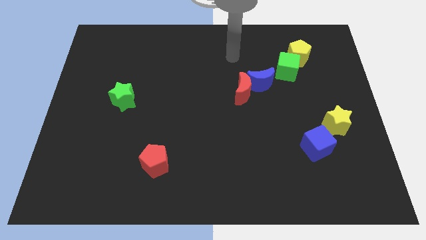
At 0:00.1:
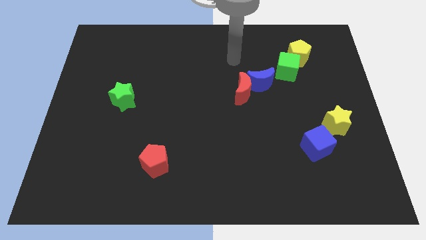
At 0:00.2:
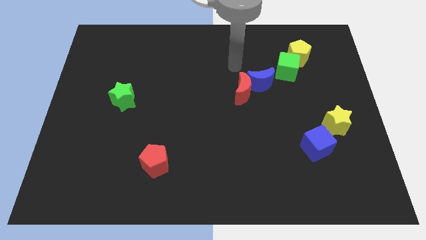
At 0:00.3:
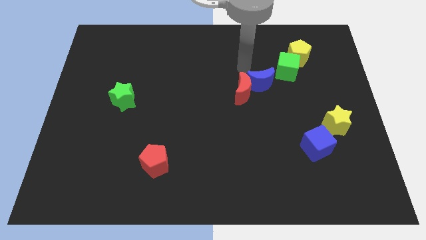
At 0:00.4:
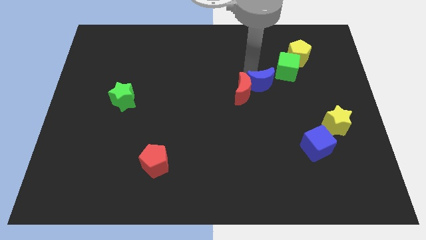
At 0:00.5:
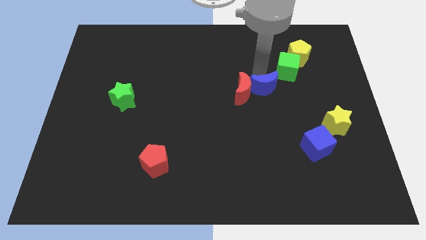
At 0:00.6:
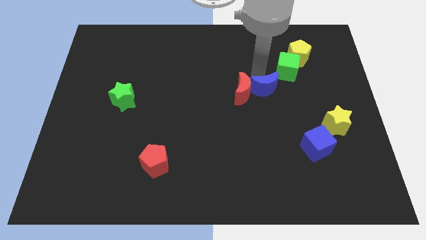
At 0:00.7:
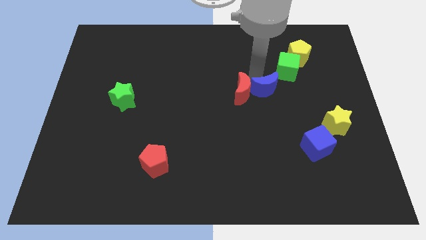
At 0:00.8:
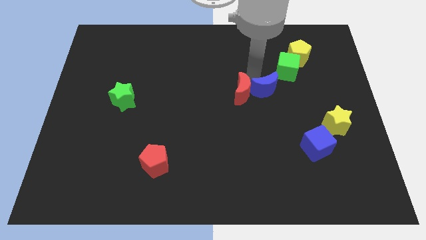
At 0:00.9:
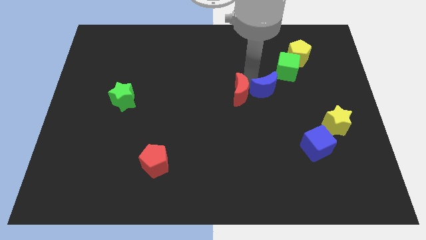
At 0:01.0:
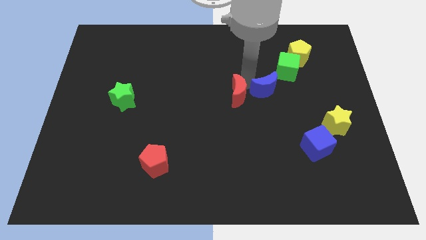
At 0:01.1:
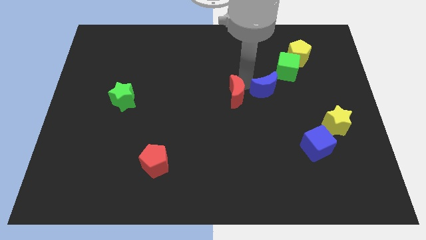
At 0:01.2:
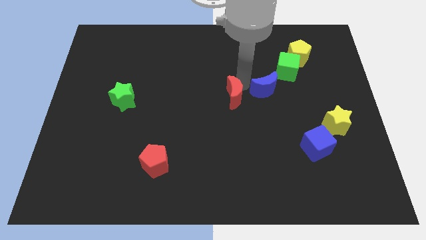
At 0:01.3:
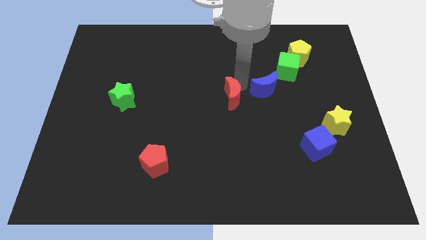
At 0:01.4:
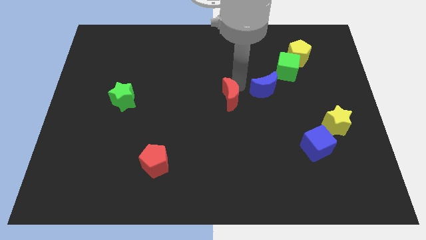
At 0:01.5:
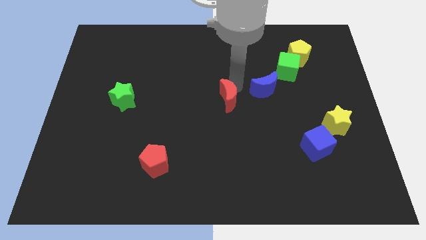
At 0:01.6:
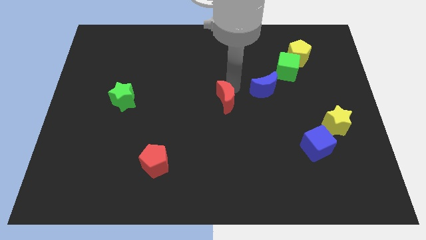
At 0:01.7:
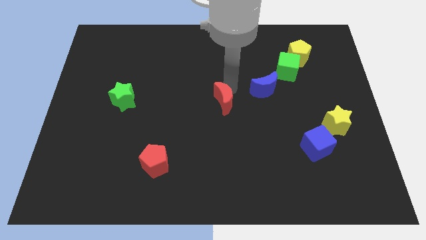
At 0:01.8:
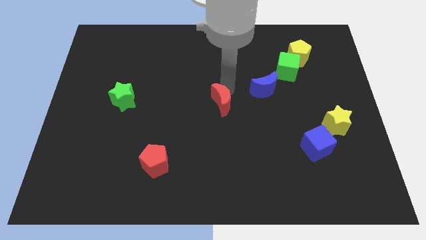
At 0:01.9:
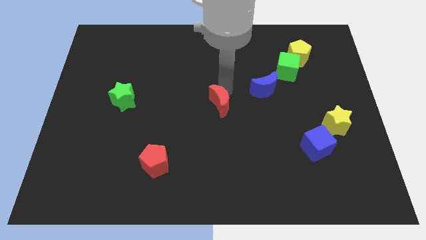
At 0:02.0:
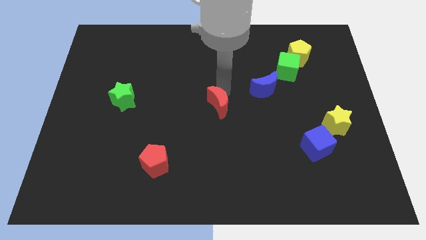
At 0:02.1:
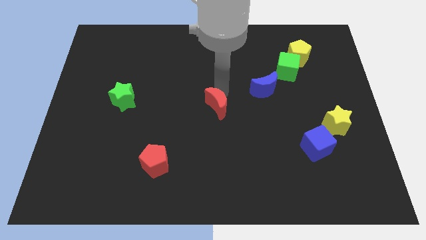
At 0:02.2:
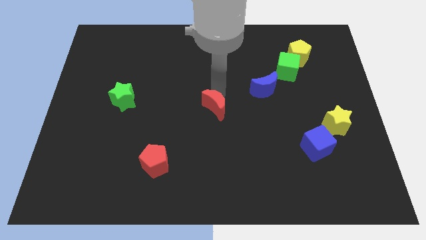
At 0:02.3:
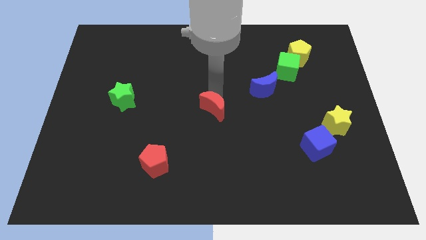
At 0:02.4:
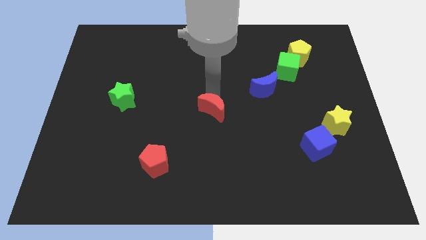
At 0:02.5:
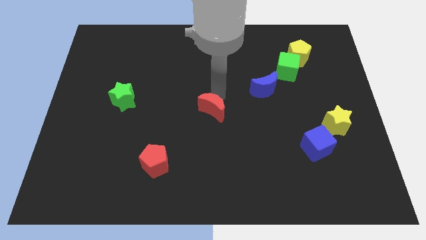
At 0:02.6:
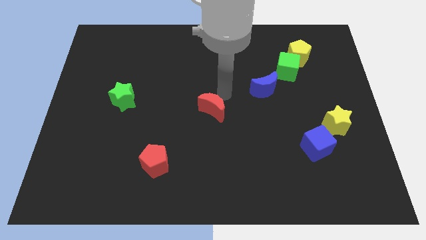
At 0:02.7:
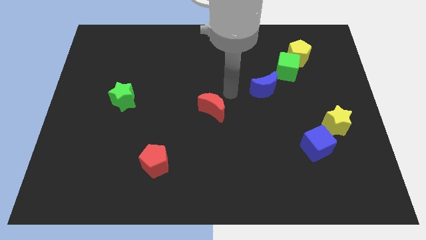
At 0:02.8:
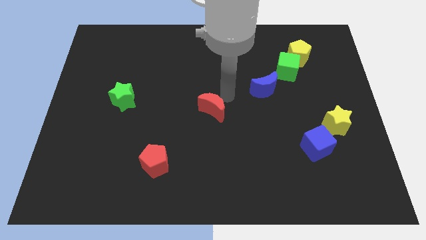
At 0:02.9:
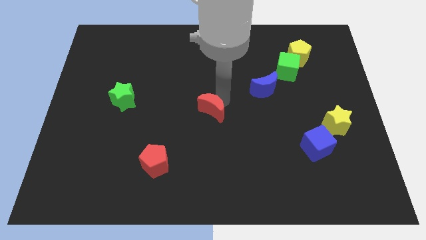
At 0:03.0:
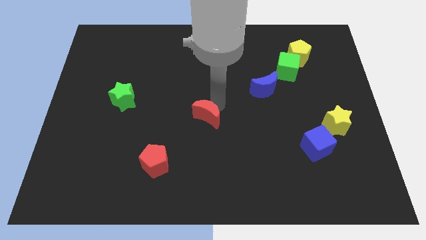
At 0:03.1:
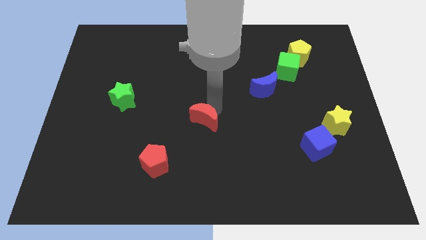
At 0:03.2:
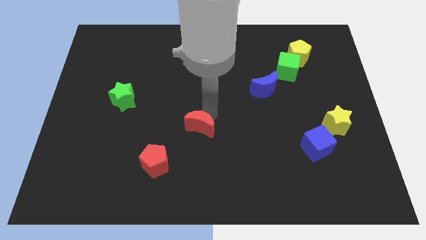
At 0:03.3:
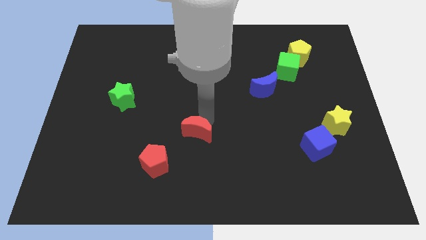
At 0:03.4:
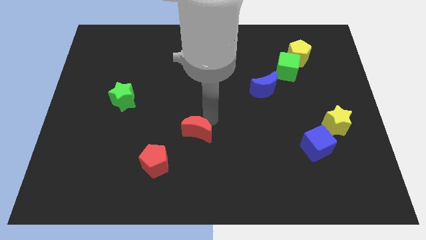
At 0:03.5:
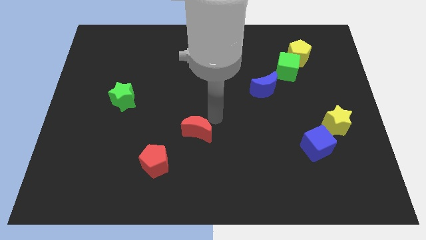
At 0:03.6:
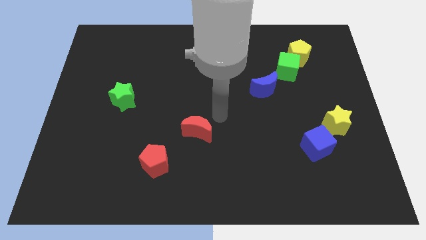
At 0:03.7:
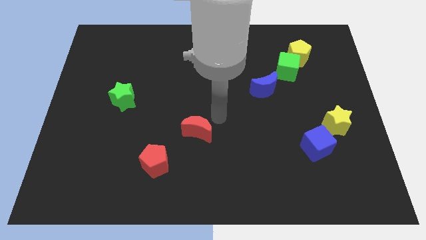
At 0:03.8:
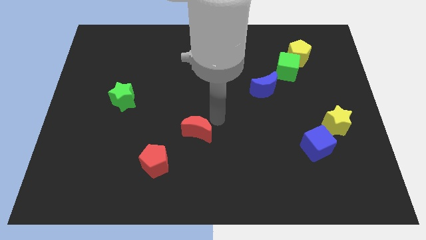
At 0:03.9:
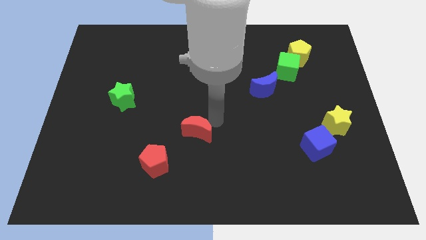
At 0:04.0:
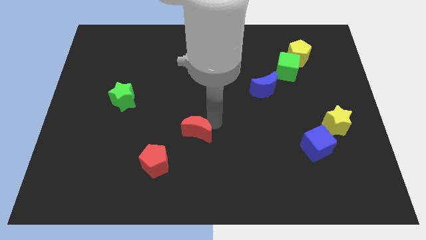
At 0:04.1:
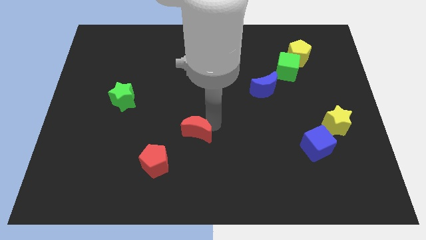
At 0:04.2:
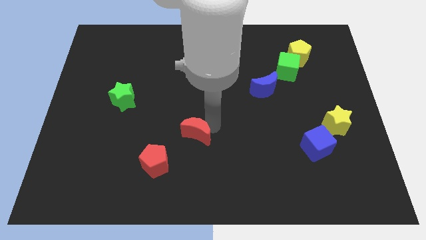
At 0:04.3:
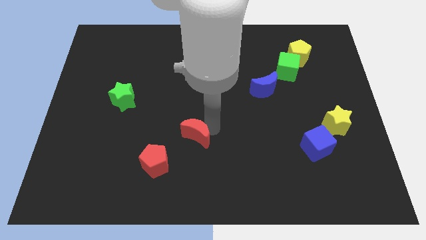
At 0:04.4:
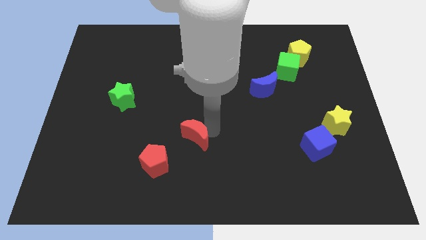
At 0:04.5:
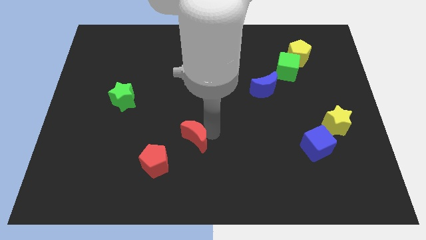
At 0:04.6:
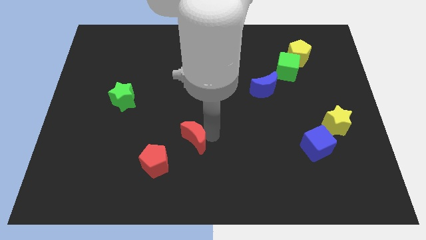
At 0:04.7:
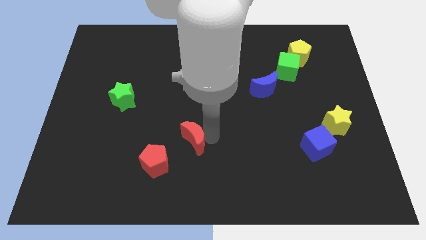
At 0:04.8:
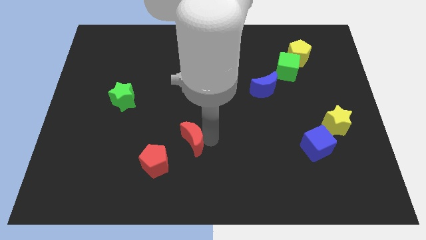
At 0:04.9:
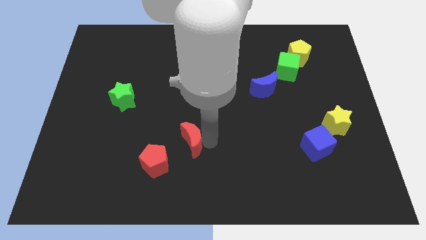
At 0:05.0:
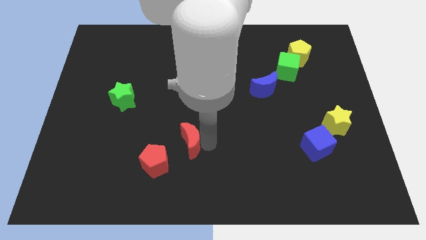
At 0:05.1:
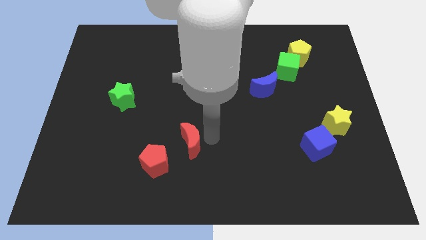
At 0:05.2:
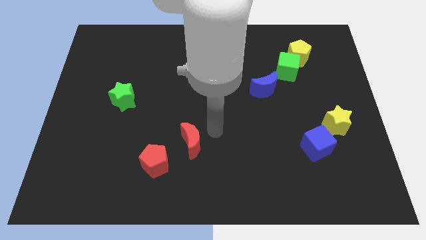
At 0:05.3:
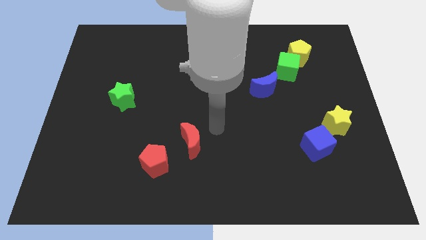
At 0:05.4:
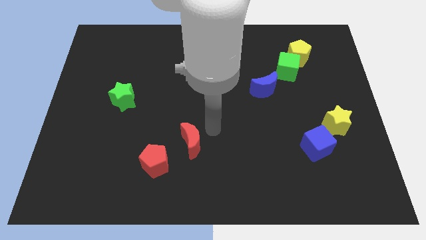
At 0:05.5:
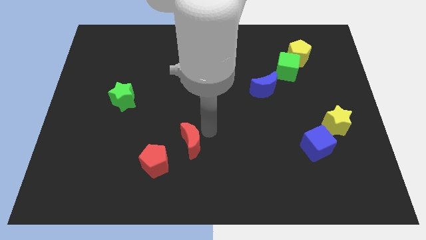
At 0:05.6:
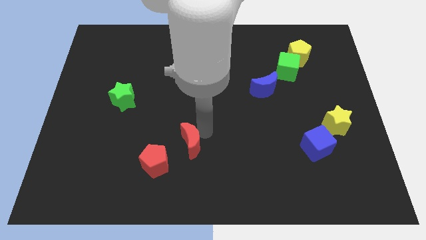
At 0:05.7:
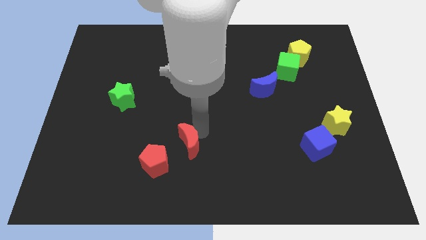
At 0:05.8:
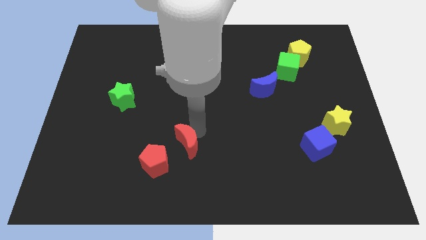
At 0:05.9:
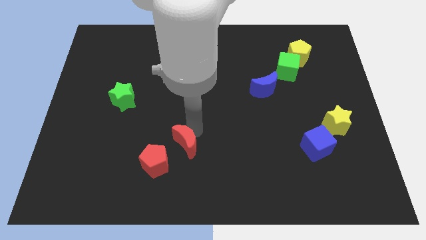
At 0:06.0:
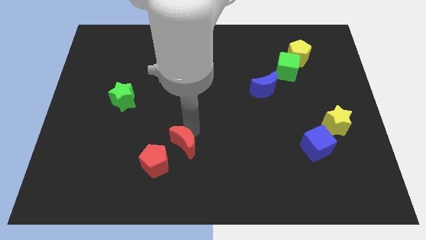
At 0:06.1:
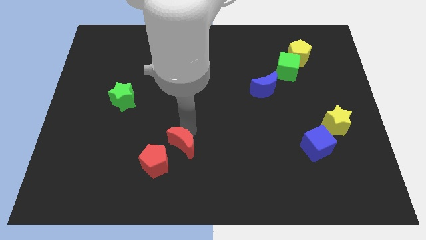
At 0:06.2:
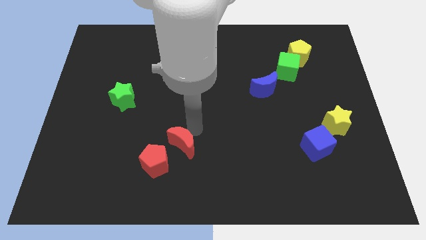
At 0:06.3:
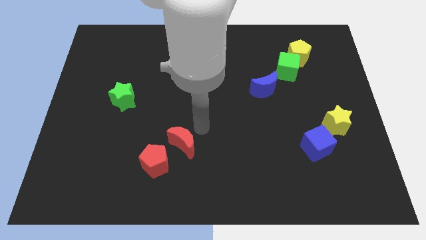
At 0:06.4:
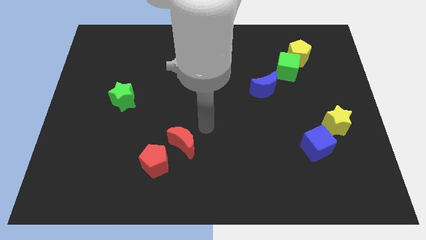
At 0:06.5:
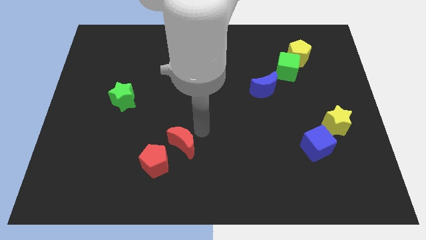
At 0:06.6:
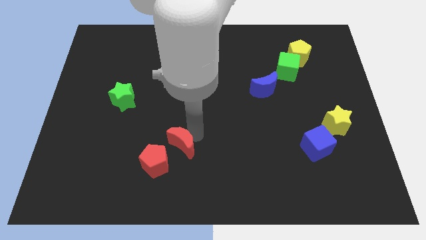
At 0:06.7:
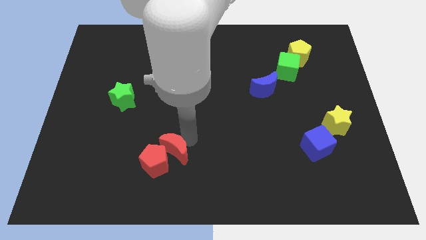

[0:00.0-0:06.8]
slide the red moon close to the red pentagon
